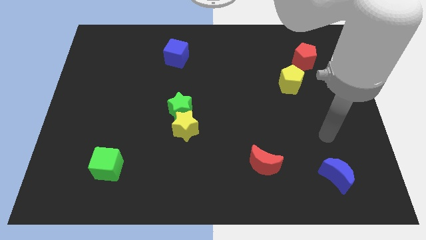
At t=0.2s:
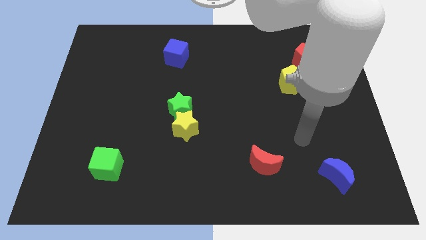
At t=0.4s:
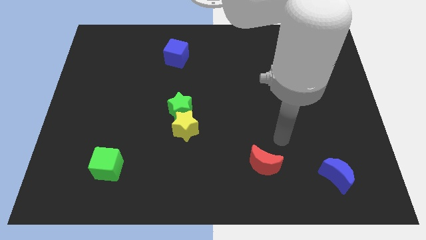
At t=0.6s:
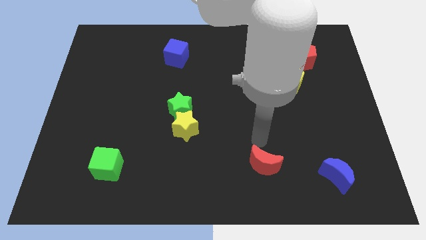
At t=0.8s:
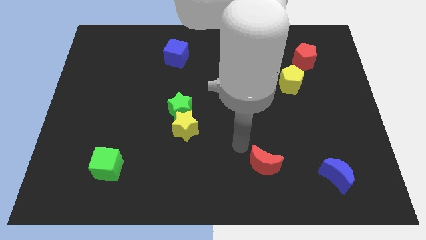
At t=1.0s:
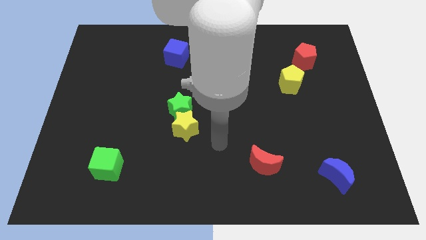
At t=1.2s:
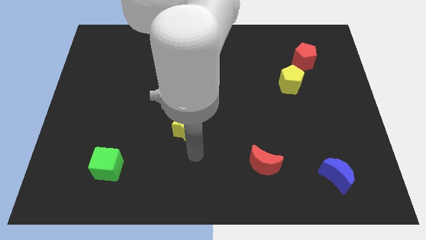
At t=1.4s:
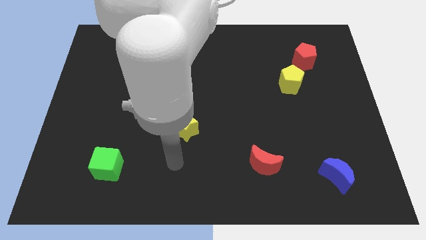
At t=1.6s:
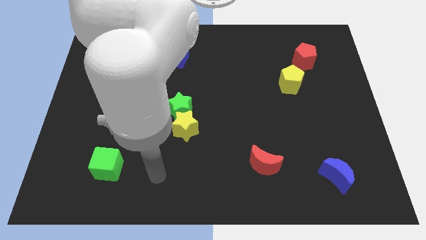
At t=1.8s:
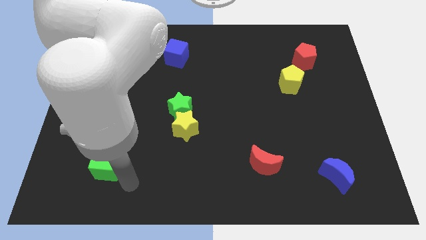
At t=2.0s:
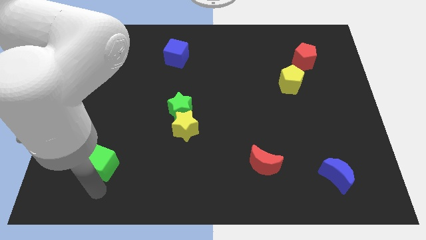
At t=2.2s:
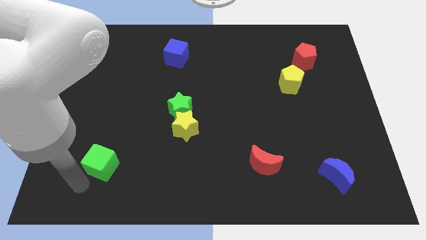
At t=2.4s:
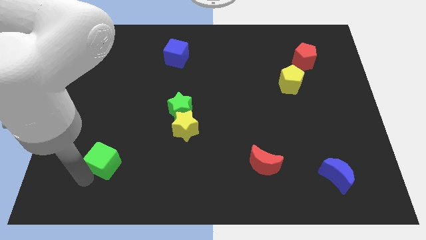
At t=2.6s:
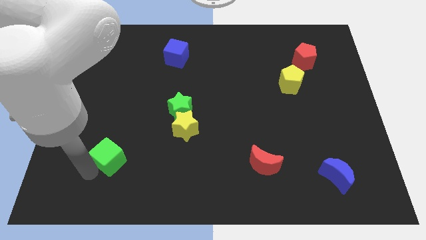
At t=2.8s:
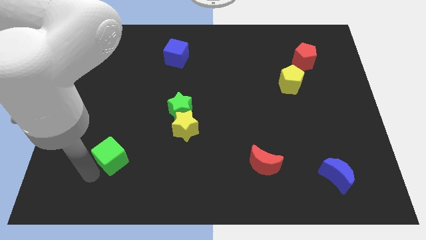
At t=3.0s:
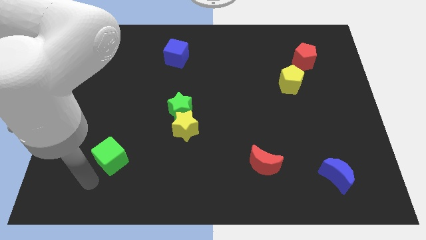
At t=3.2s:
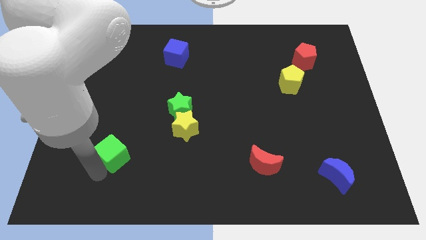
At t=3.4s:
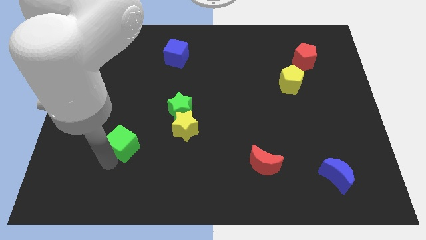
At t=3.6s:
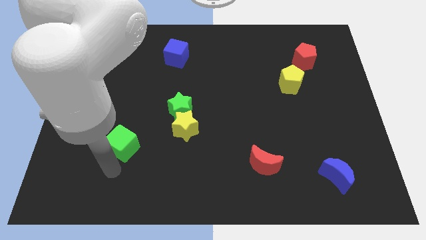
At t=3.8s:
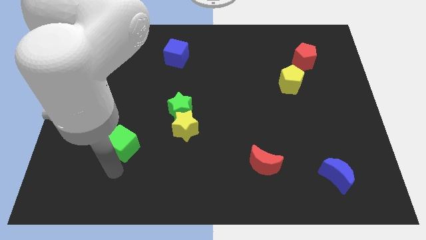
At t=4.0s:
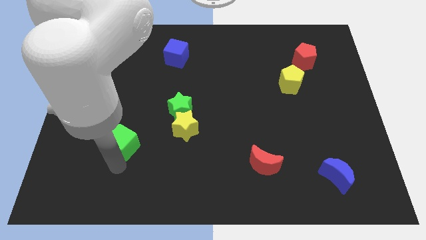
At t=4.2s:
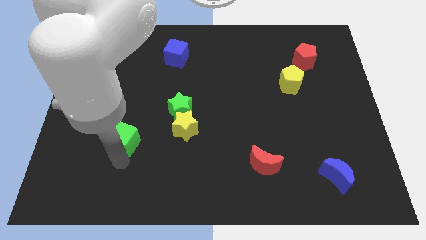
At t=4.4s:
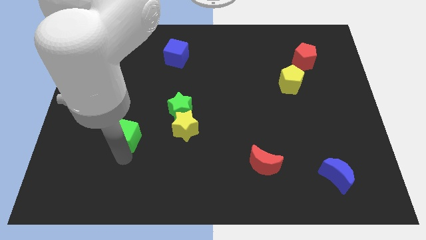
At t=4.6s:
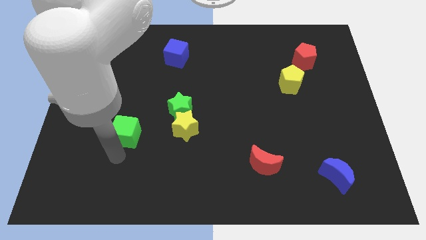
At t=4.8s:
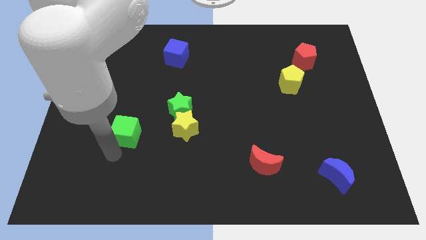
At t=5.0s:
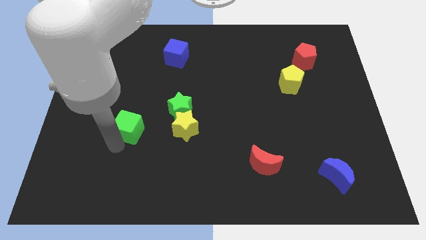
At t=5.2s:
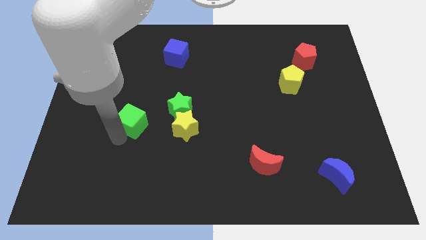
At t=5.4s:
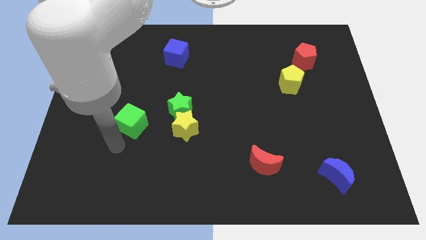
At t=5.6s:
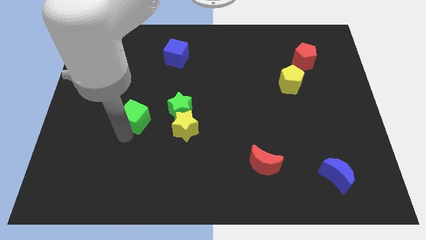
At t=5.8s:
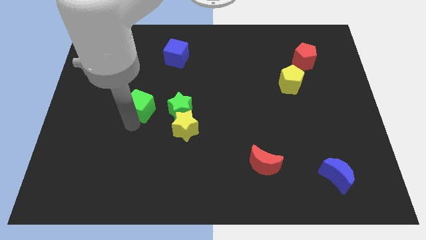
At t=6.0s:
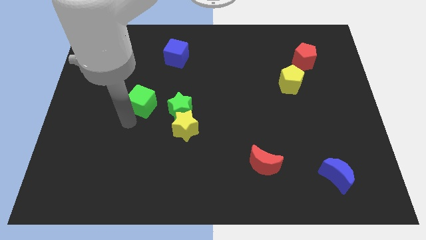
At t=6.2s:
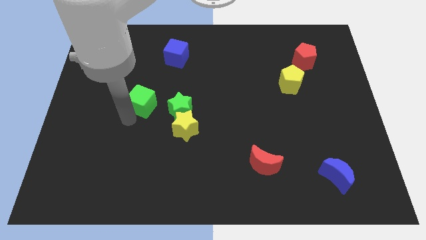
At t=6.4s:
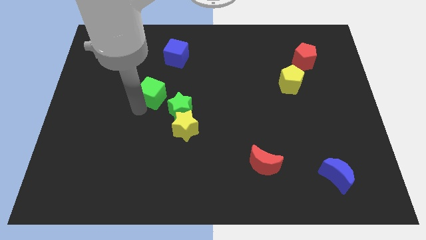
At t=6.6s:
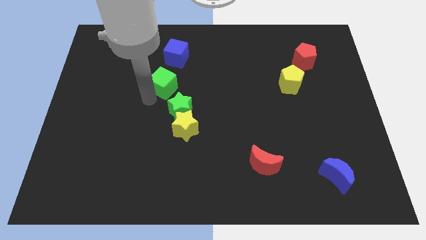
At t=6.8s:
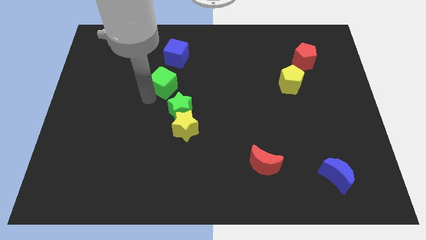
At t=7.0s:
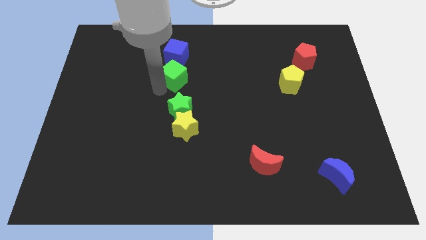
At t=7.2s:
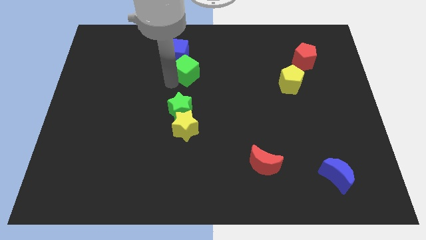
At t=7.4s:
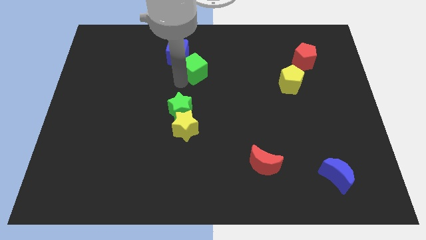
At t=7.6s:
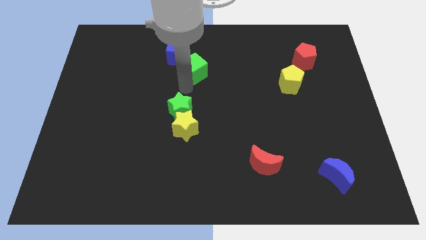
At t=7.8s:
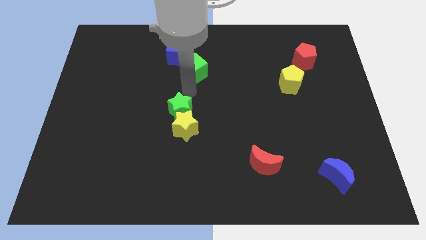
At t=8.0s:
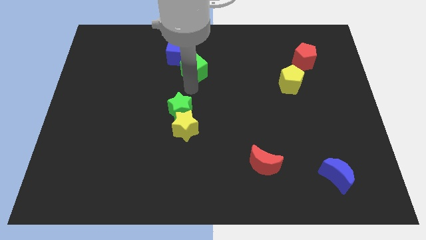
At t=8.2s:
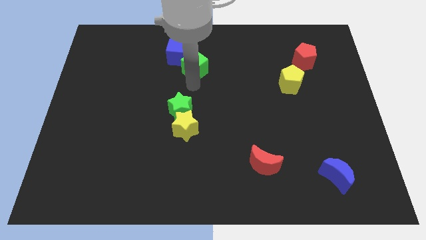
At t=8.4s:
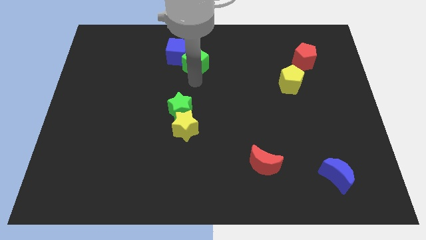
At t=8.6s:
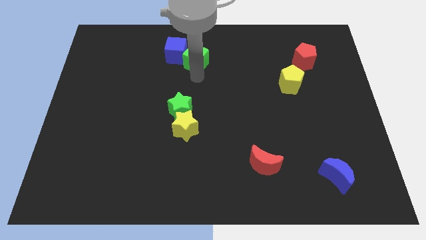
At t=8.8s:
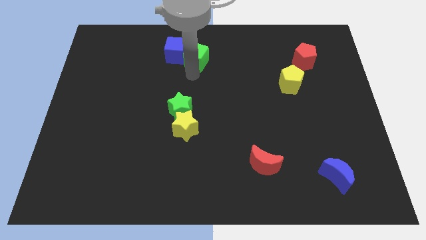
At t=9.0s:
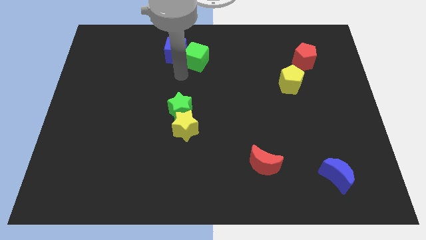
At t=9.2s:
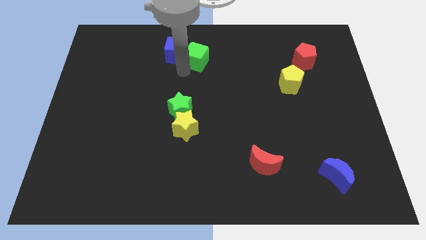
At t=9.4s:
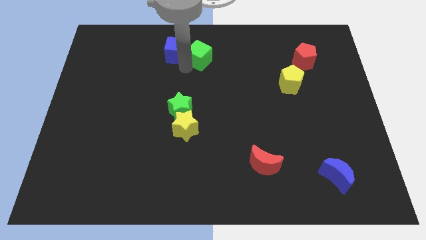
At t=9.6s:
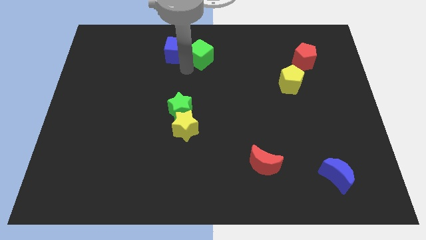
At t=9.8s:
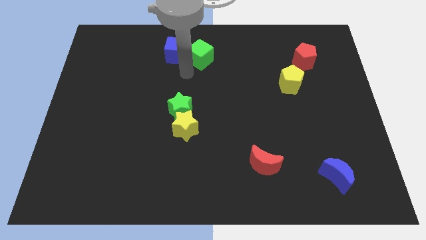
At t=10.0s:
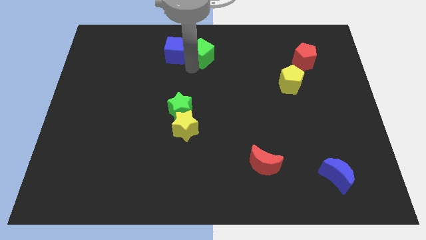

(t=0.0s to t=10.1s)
move the green cube to the top side

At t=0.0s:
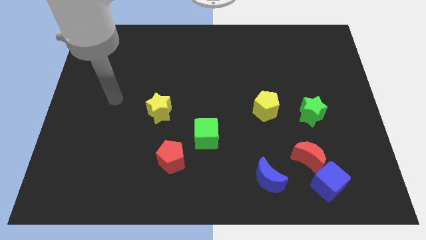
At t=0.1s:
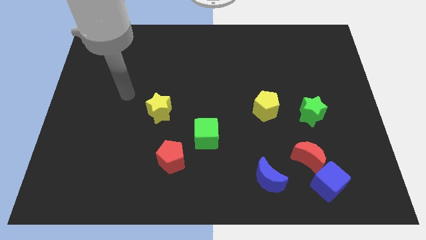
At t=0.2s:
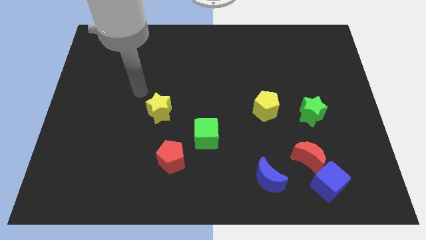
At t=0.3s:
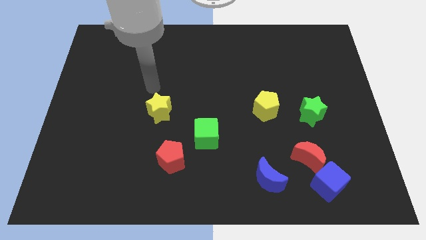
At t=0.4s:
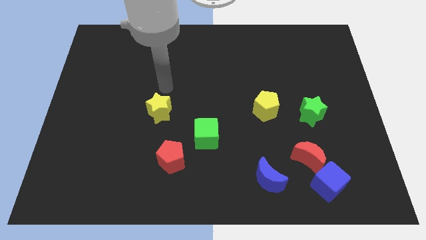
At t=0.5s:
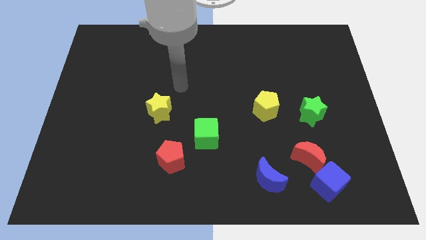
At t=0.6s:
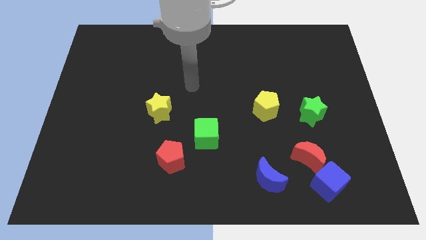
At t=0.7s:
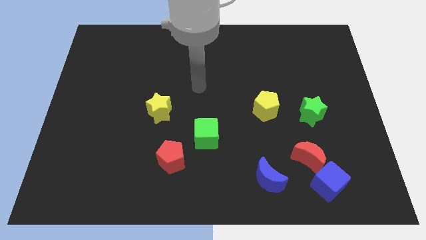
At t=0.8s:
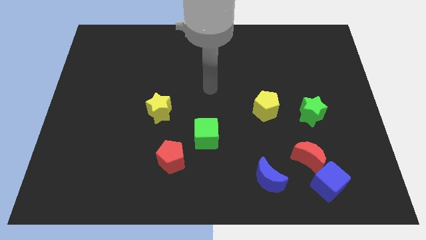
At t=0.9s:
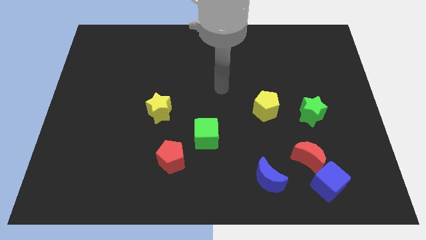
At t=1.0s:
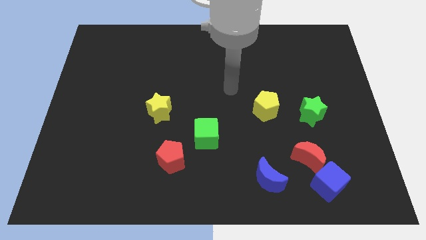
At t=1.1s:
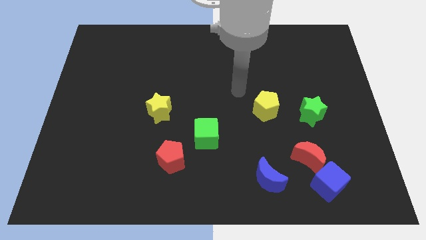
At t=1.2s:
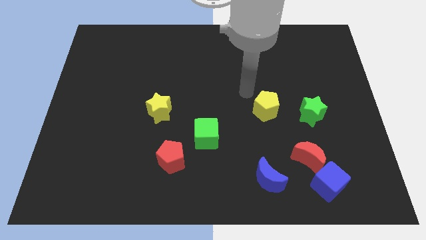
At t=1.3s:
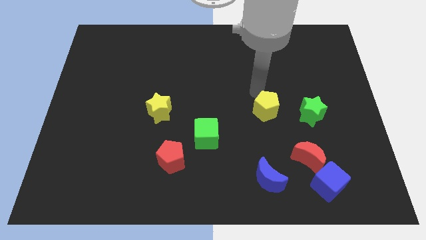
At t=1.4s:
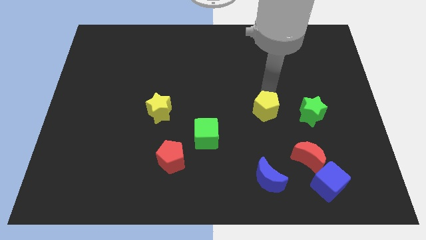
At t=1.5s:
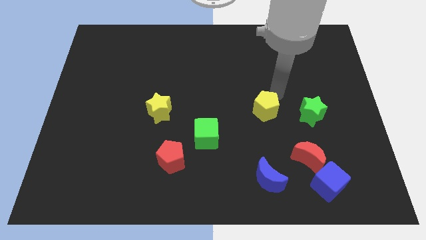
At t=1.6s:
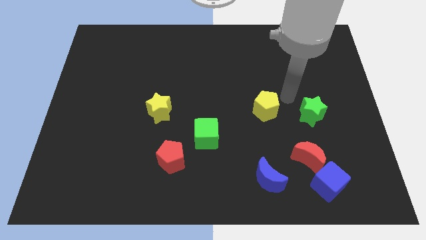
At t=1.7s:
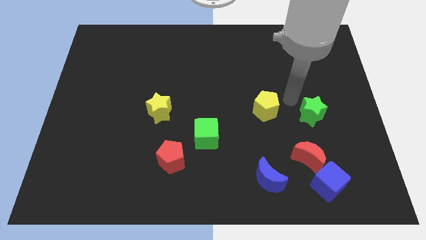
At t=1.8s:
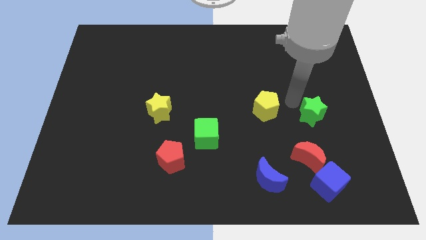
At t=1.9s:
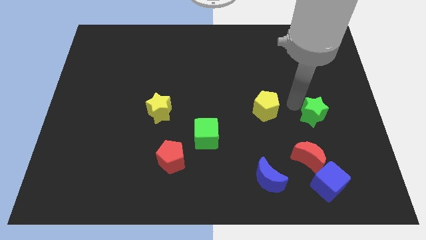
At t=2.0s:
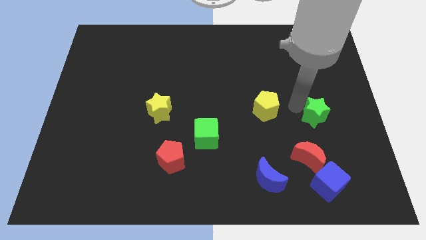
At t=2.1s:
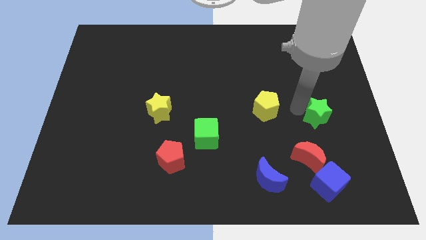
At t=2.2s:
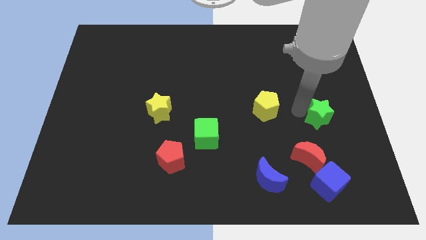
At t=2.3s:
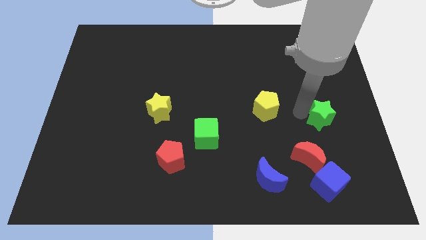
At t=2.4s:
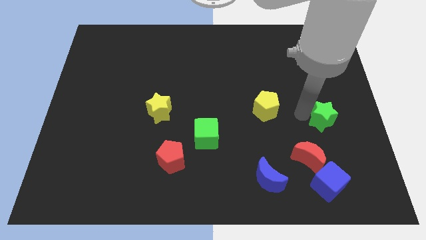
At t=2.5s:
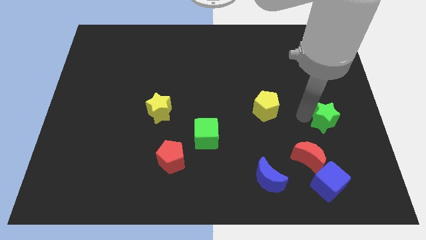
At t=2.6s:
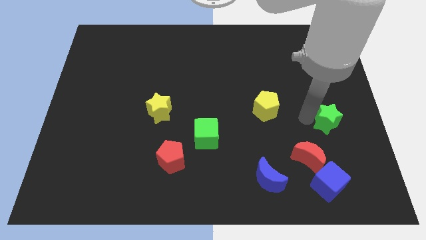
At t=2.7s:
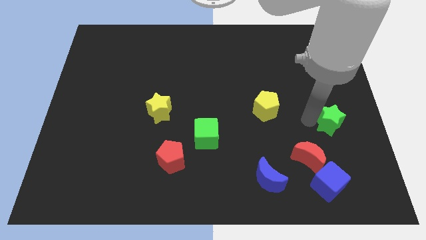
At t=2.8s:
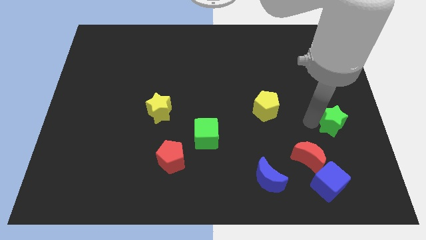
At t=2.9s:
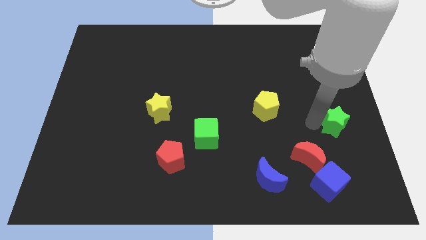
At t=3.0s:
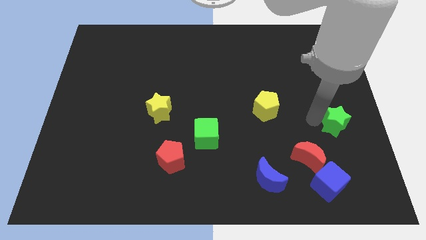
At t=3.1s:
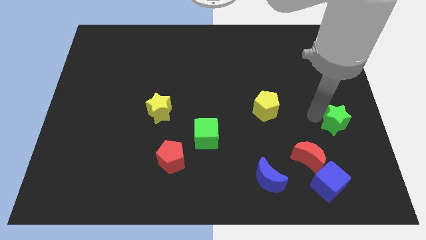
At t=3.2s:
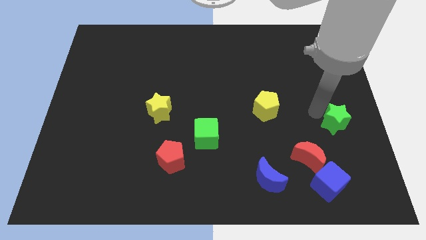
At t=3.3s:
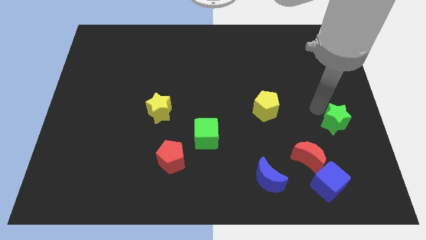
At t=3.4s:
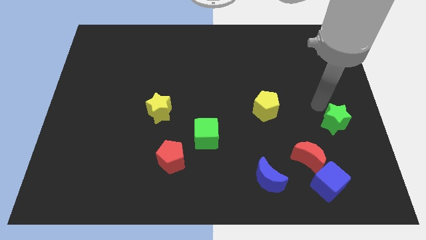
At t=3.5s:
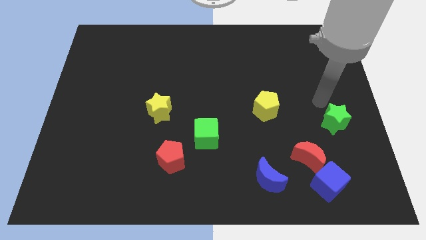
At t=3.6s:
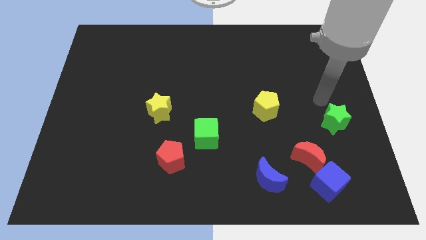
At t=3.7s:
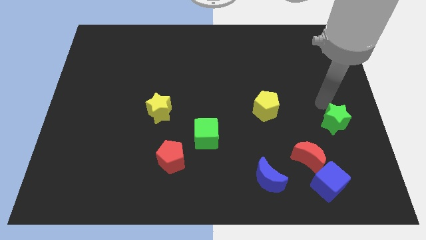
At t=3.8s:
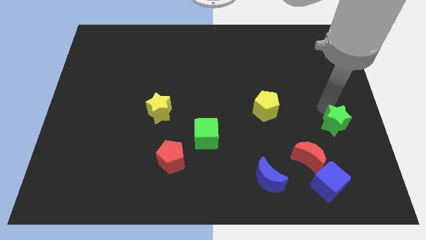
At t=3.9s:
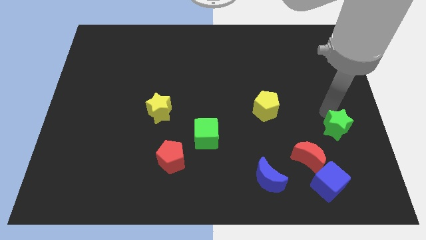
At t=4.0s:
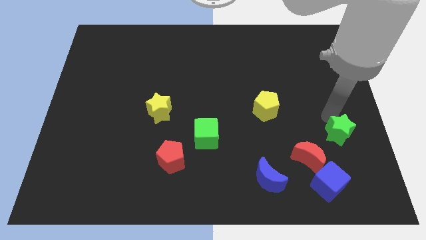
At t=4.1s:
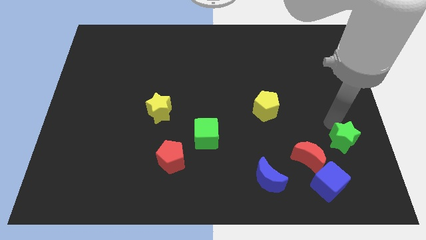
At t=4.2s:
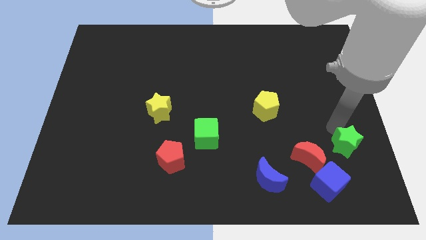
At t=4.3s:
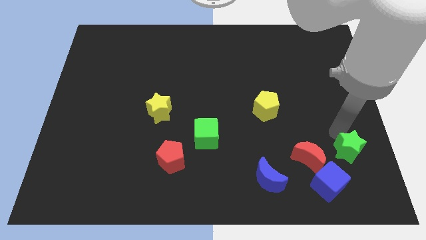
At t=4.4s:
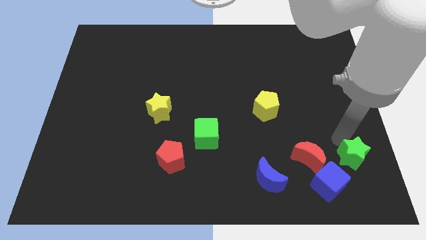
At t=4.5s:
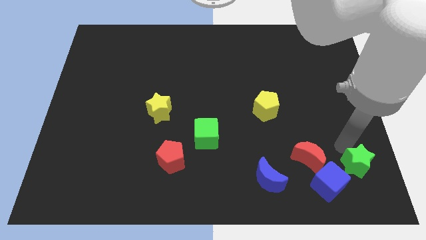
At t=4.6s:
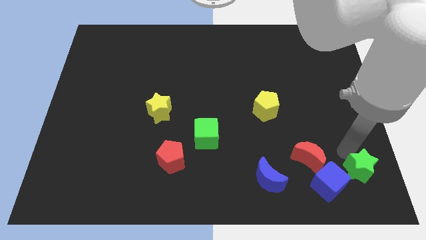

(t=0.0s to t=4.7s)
push the green star to the lower right corner
